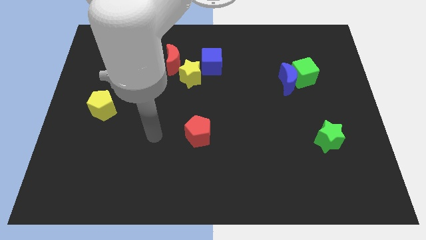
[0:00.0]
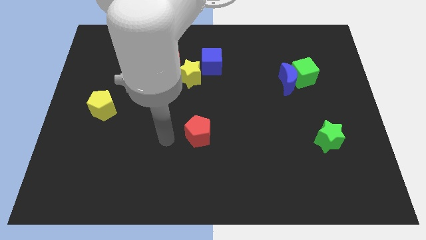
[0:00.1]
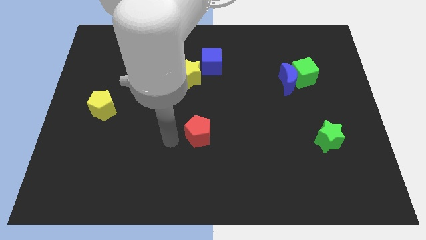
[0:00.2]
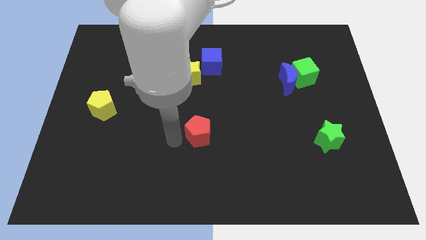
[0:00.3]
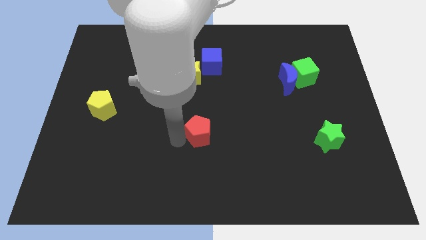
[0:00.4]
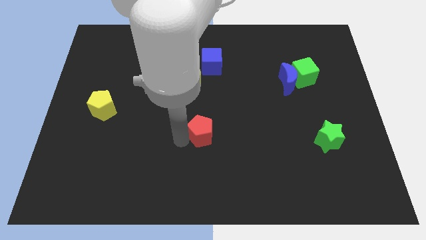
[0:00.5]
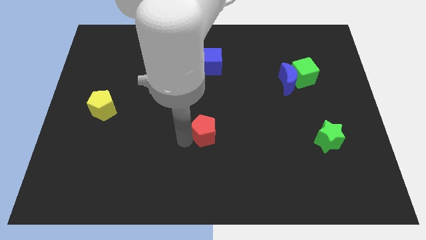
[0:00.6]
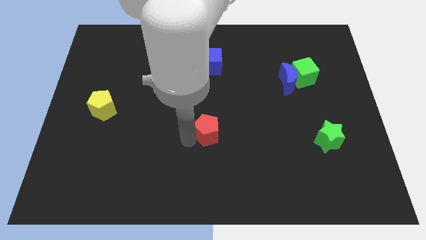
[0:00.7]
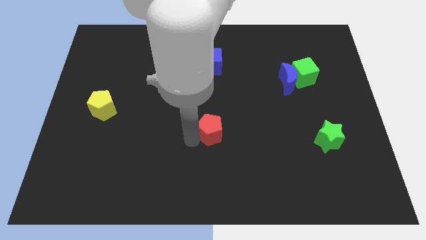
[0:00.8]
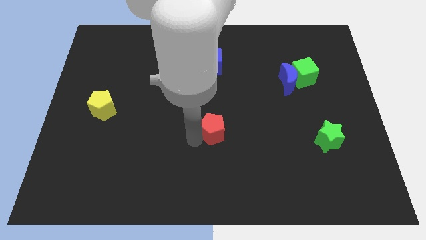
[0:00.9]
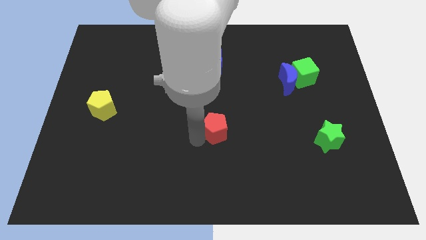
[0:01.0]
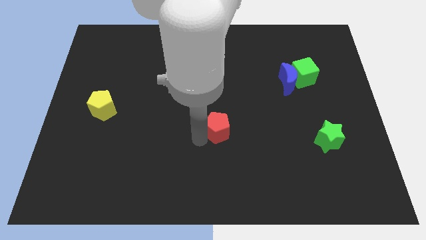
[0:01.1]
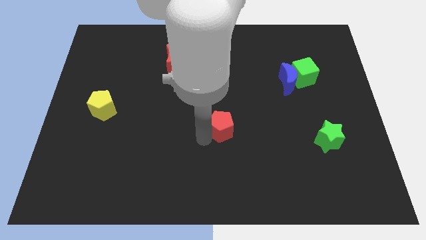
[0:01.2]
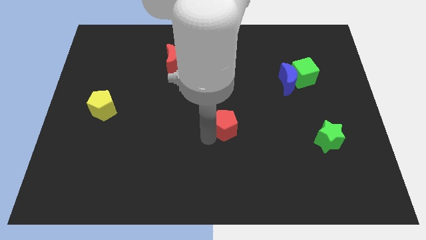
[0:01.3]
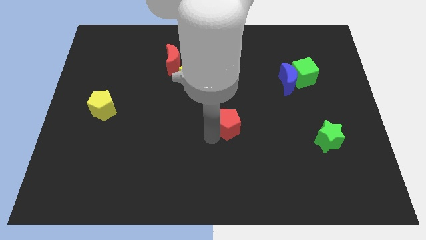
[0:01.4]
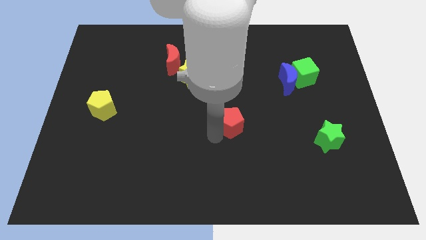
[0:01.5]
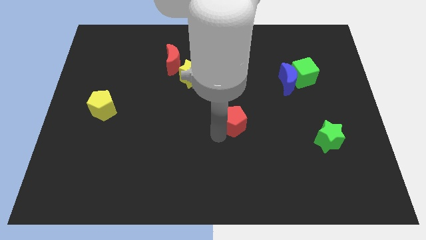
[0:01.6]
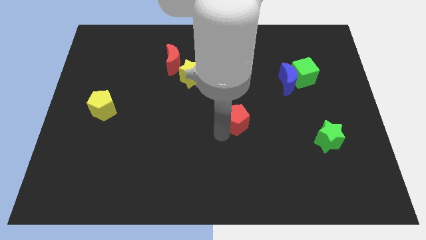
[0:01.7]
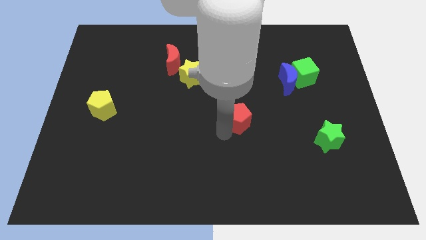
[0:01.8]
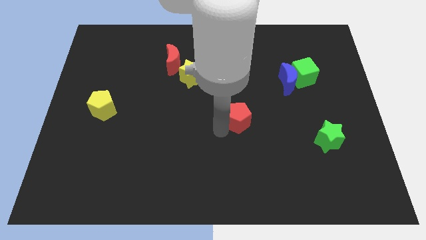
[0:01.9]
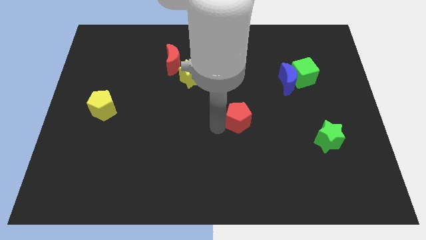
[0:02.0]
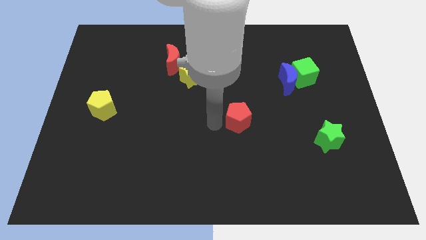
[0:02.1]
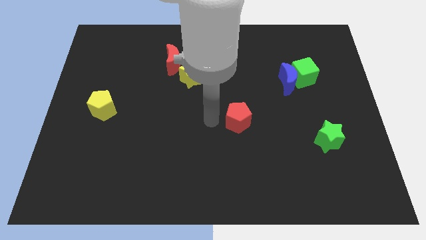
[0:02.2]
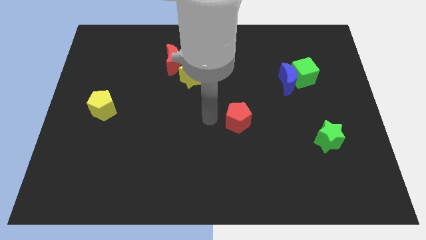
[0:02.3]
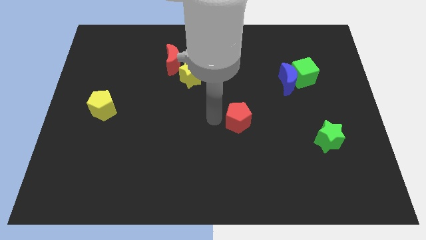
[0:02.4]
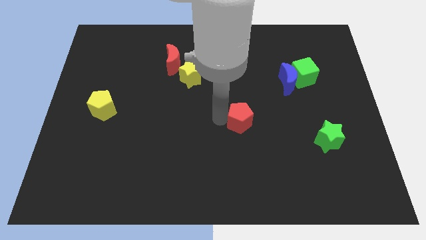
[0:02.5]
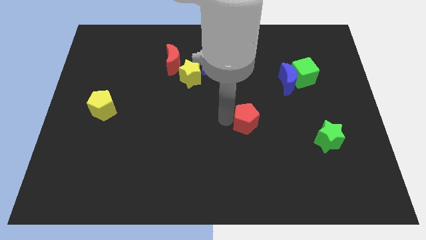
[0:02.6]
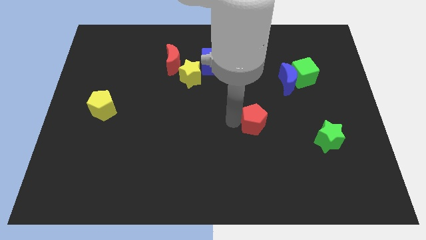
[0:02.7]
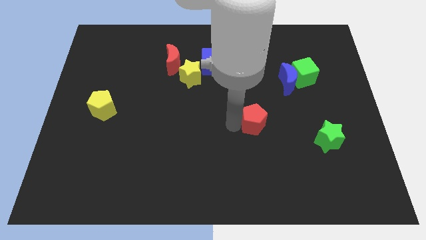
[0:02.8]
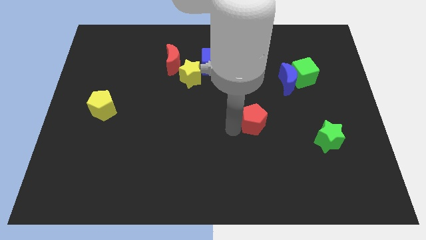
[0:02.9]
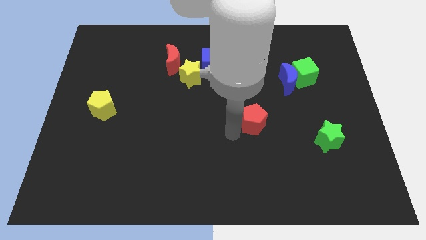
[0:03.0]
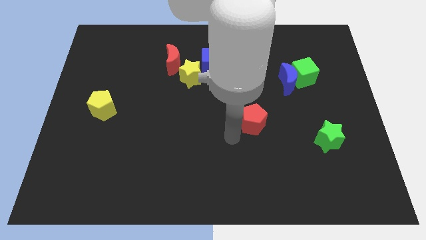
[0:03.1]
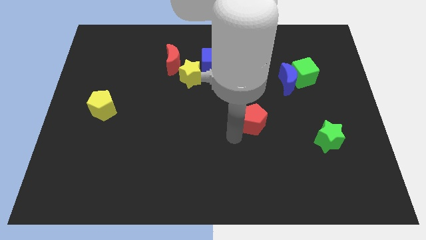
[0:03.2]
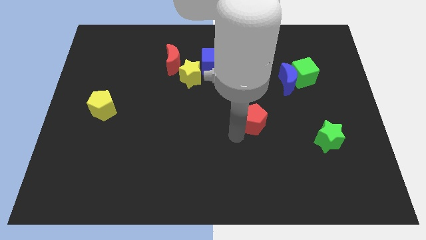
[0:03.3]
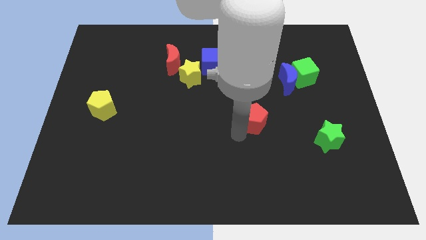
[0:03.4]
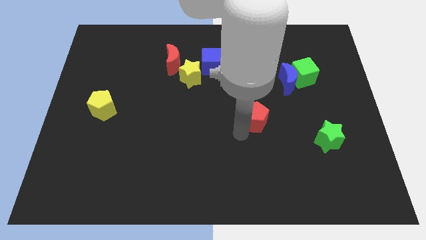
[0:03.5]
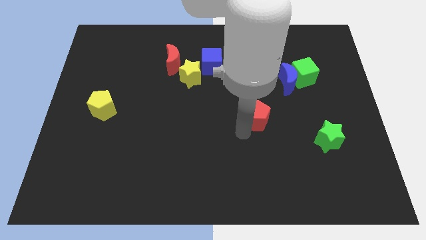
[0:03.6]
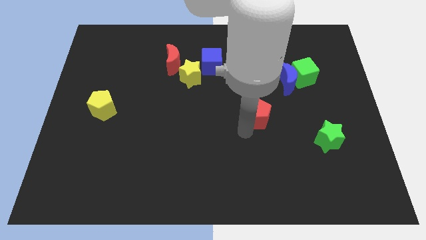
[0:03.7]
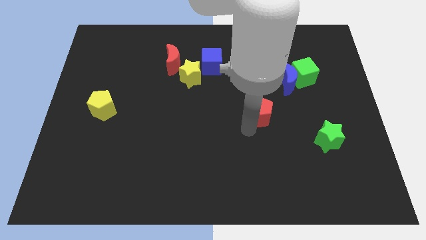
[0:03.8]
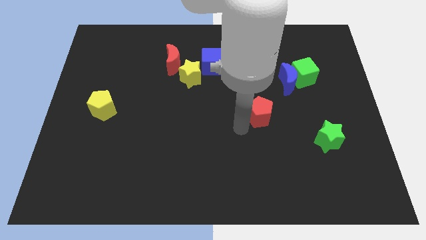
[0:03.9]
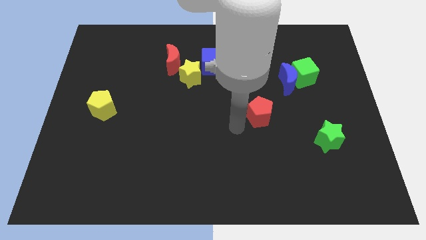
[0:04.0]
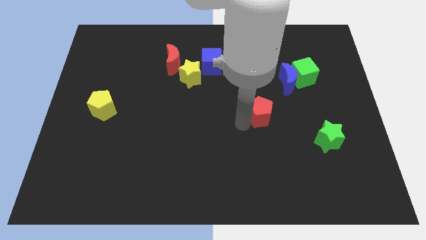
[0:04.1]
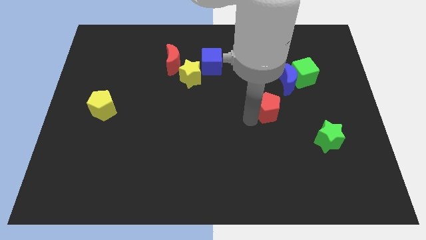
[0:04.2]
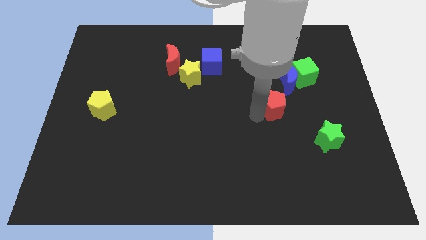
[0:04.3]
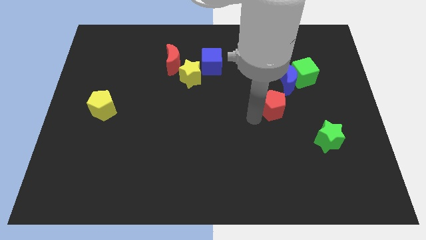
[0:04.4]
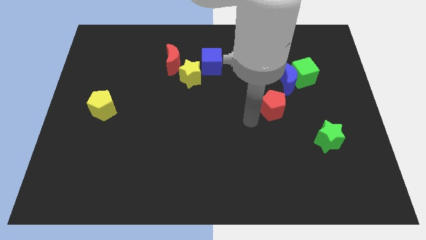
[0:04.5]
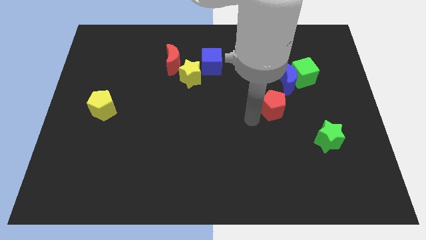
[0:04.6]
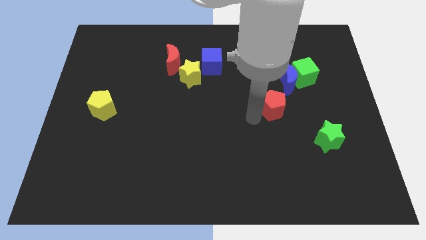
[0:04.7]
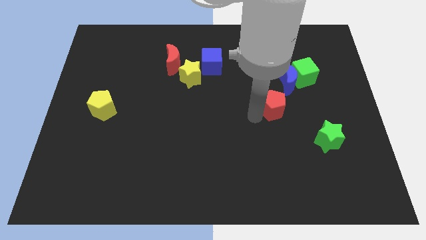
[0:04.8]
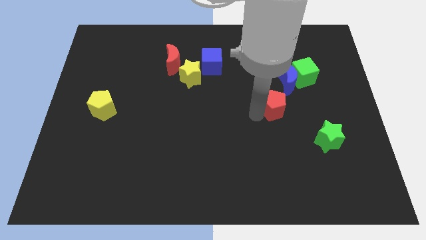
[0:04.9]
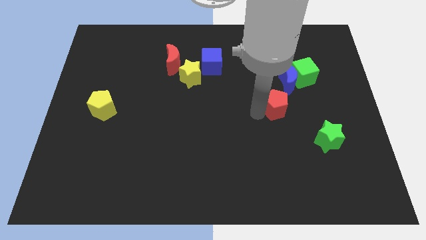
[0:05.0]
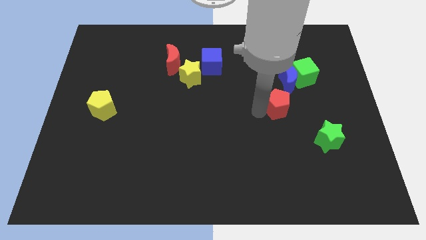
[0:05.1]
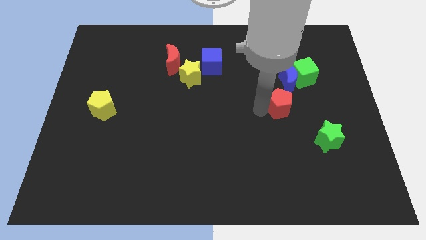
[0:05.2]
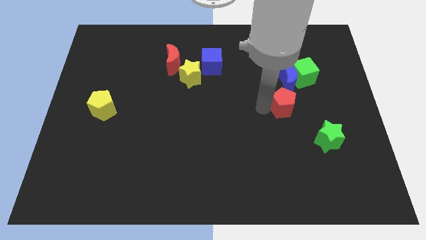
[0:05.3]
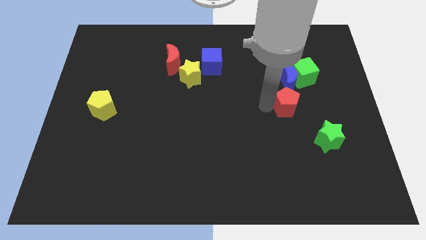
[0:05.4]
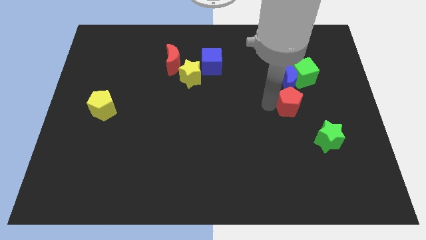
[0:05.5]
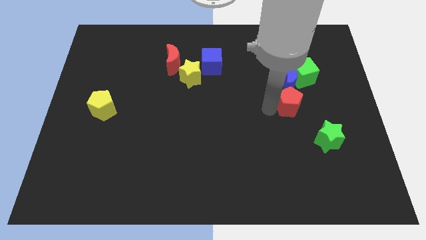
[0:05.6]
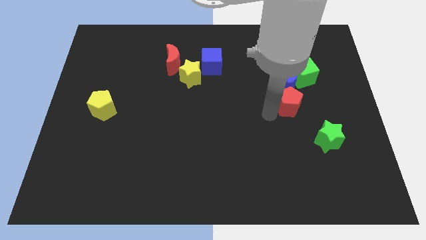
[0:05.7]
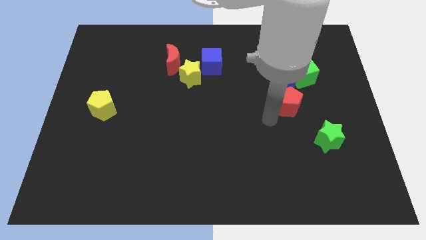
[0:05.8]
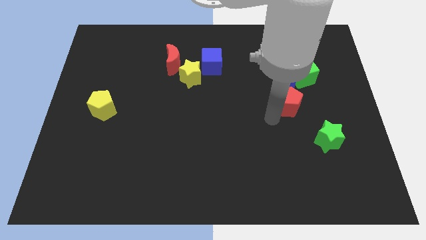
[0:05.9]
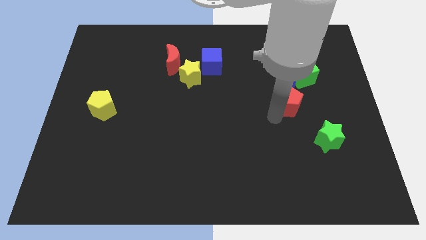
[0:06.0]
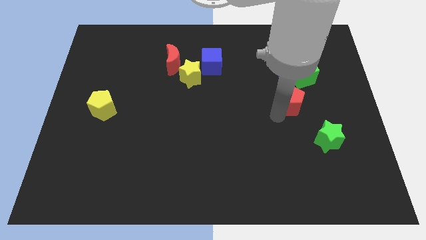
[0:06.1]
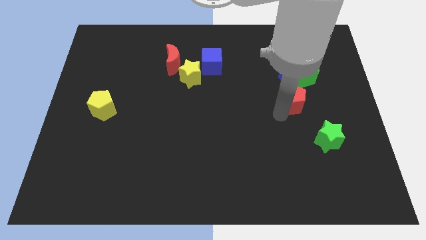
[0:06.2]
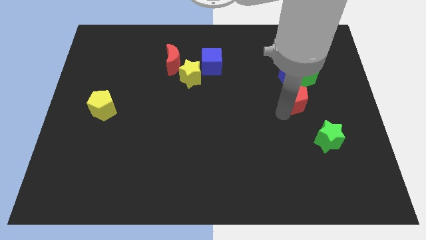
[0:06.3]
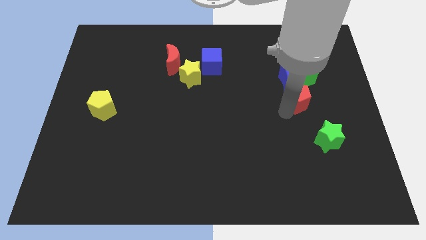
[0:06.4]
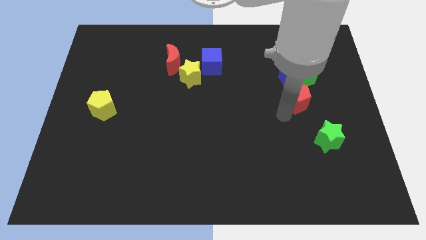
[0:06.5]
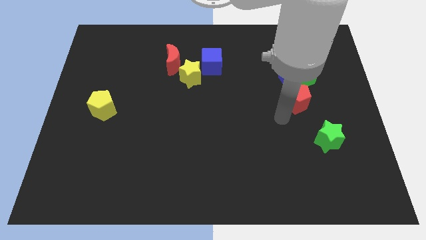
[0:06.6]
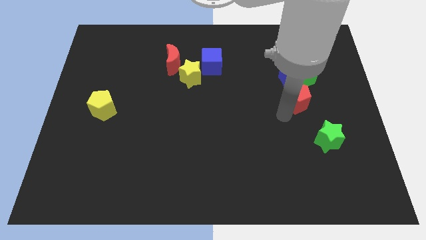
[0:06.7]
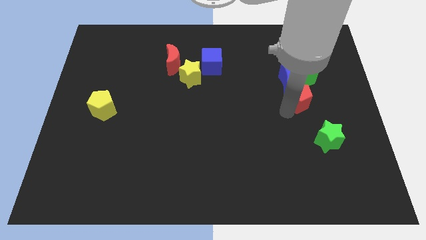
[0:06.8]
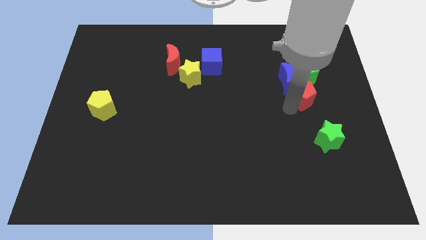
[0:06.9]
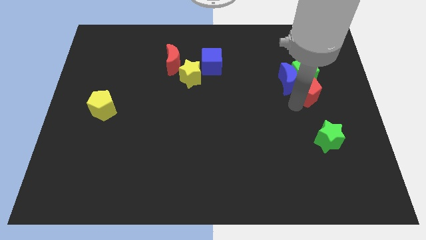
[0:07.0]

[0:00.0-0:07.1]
push the red pentagon close to the green cube
